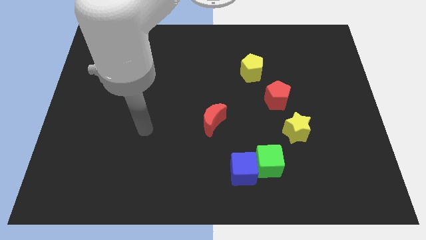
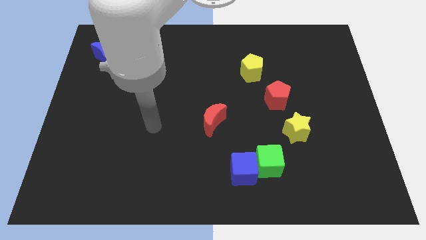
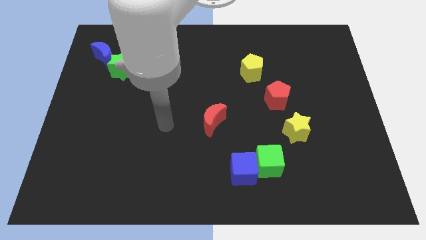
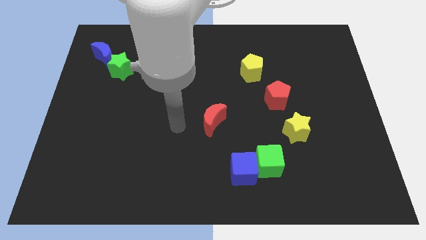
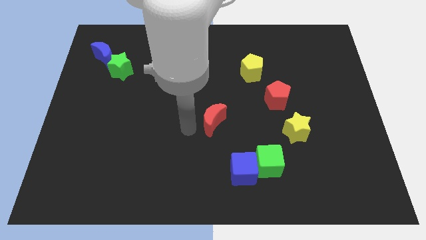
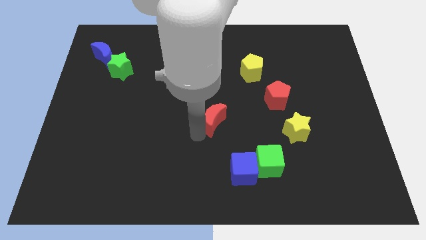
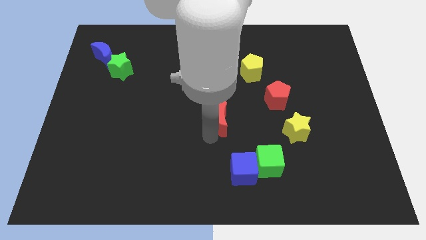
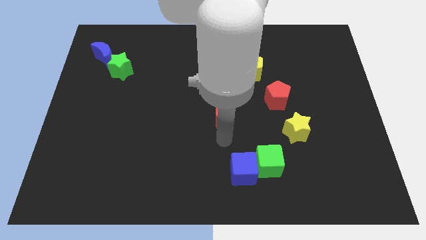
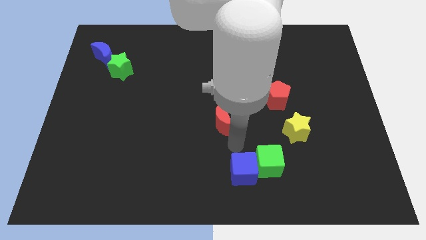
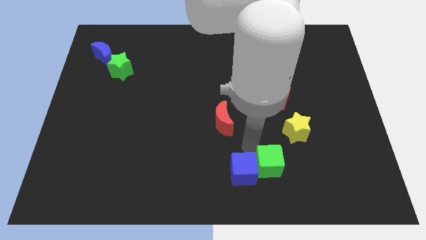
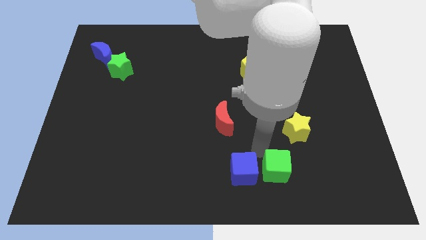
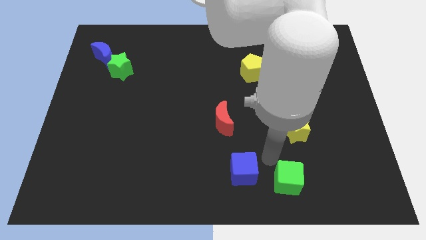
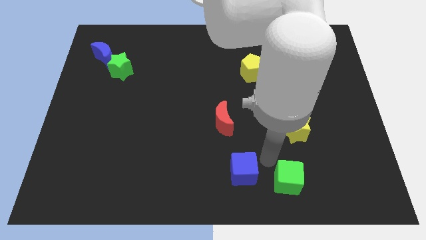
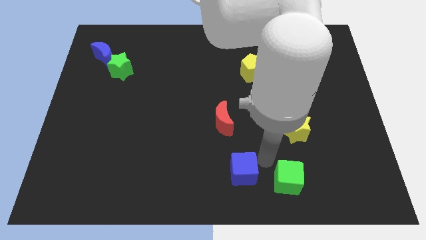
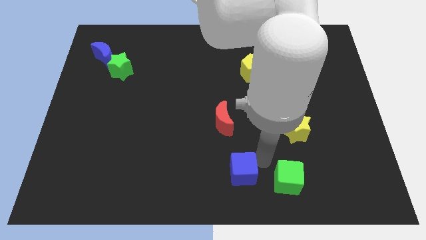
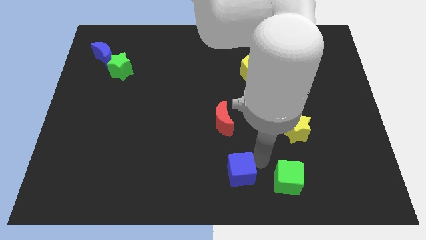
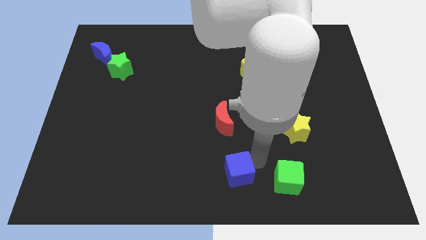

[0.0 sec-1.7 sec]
pull the blue cube apart from the green cube

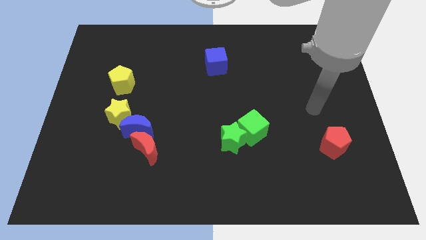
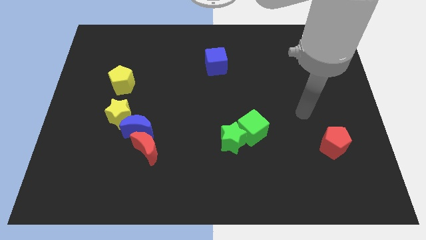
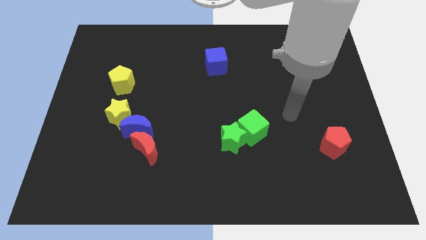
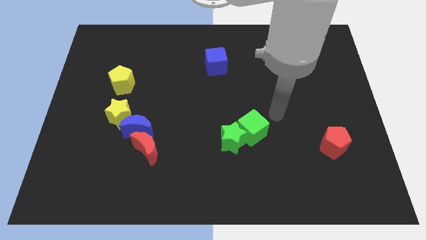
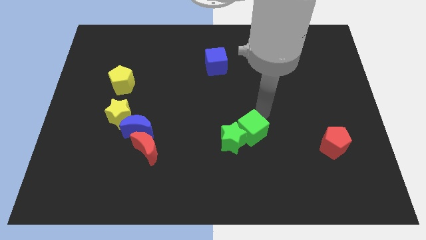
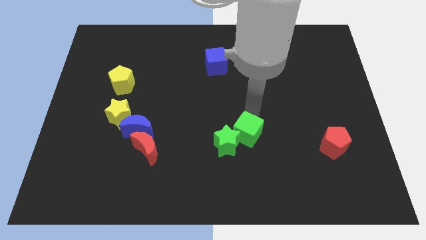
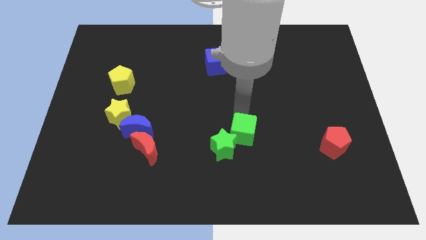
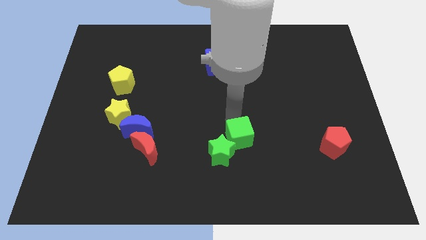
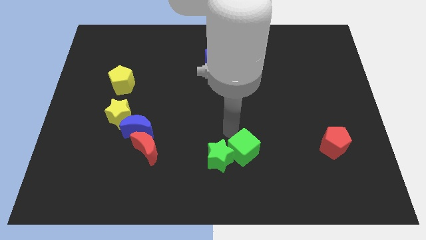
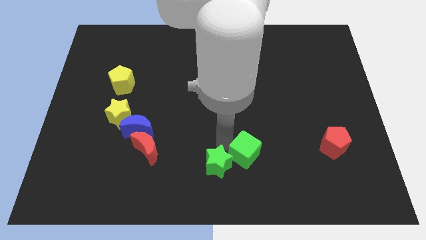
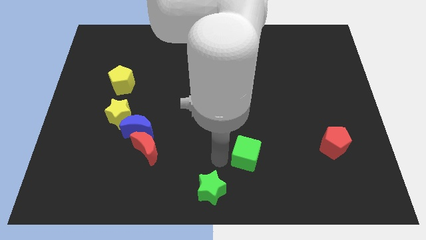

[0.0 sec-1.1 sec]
pull the green cube apart from the green star

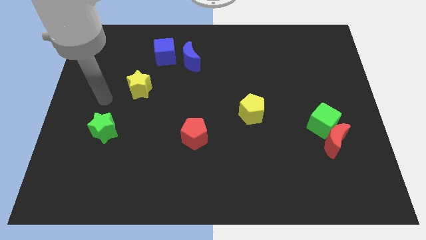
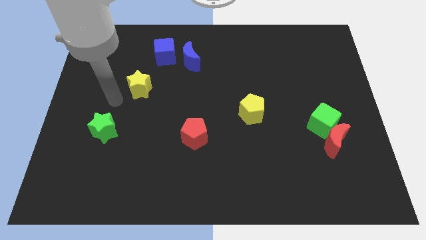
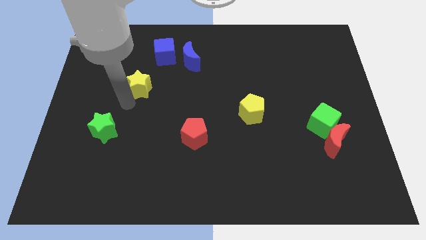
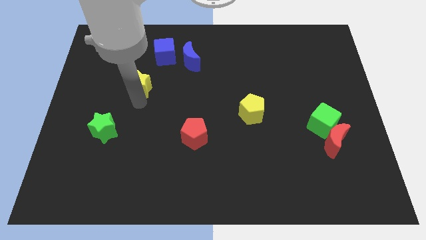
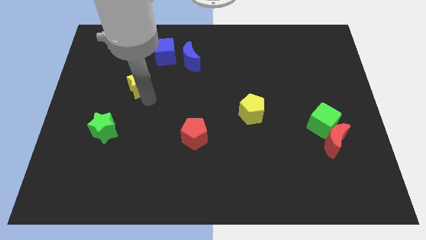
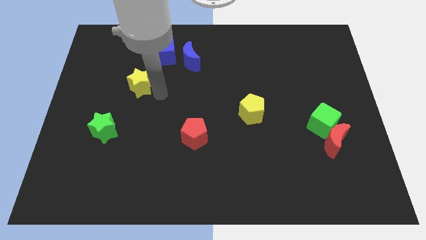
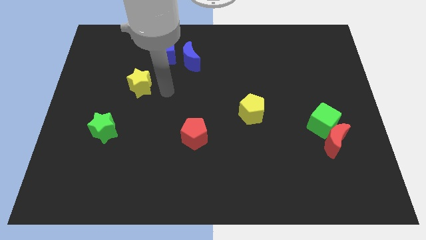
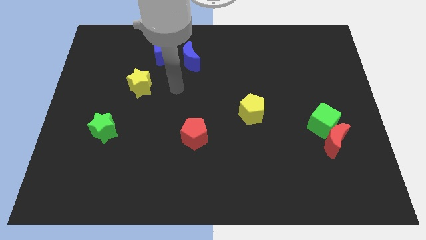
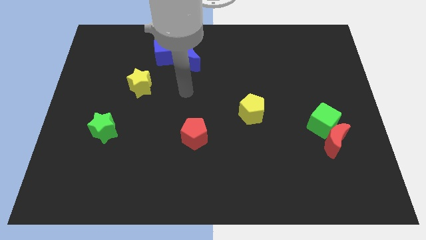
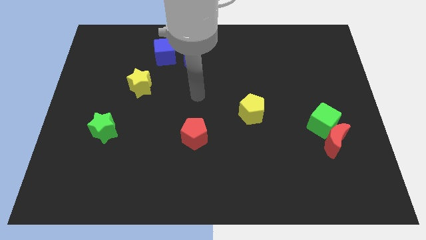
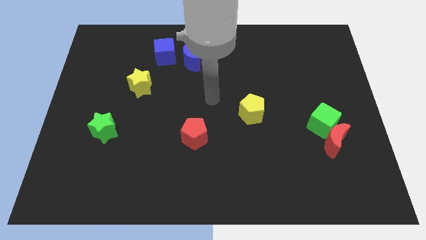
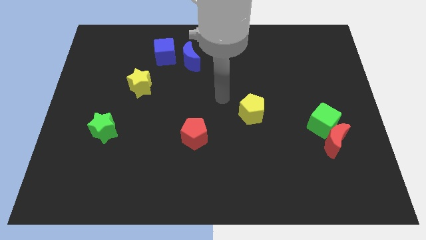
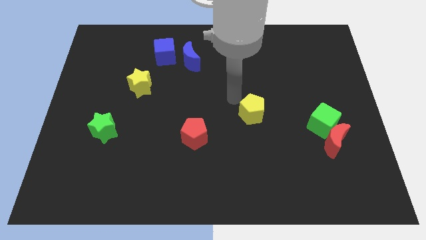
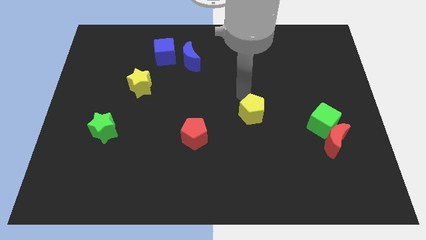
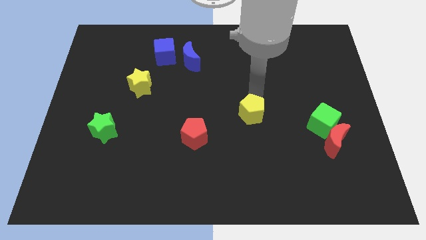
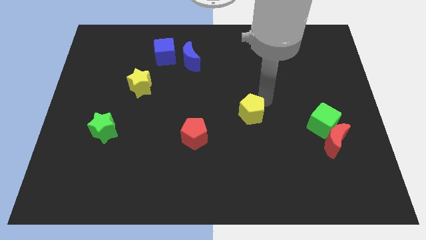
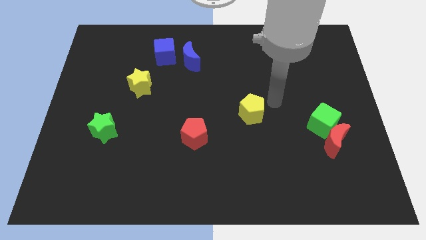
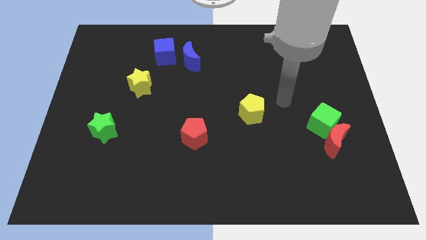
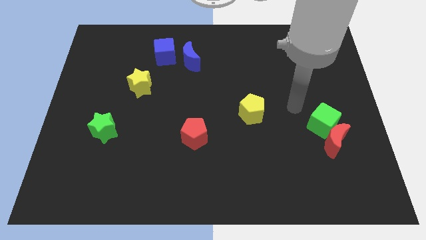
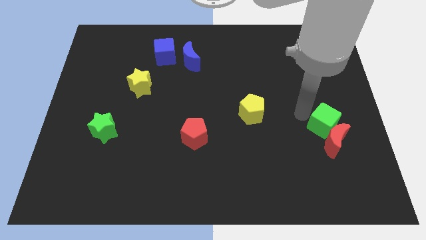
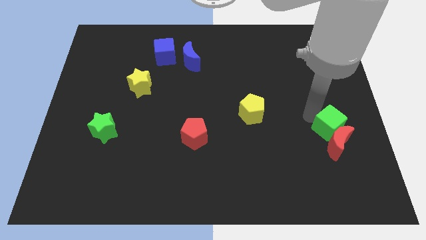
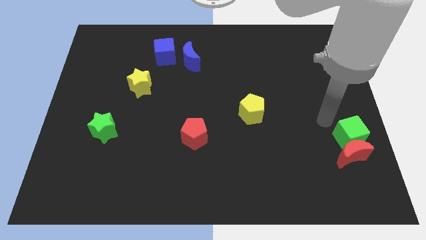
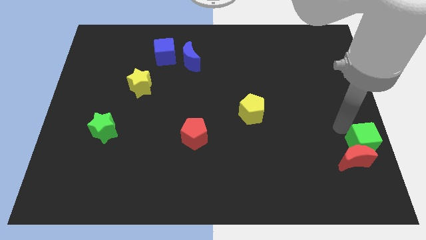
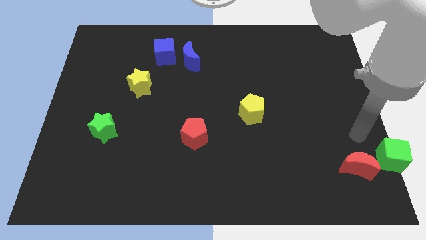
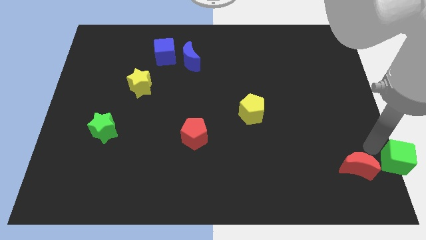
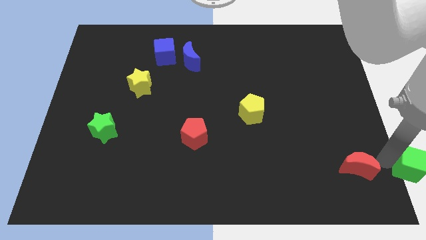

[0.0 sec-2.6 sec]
move the red moon away from the green cube

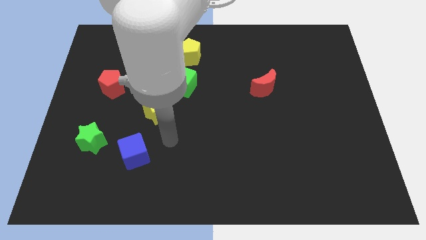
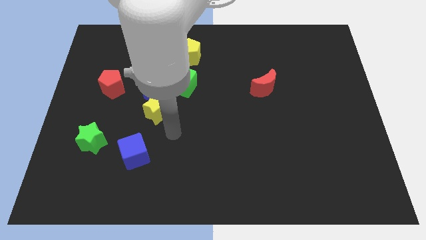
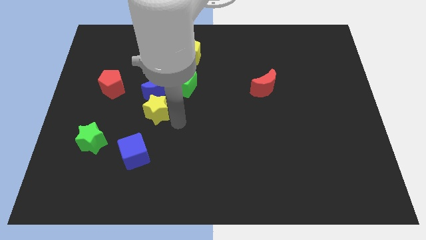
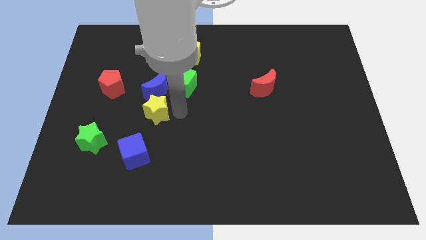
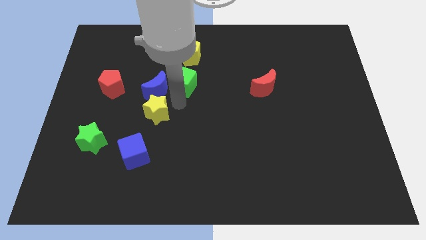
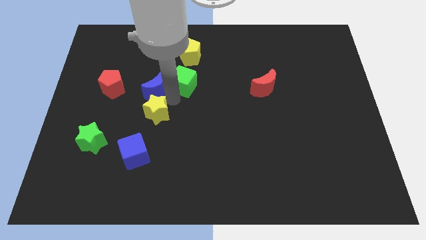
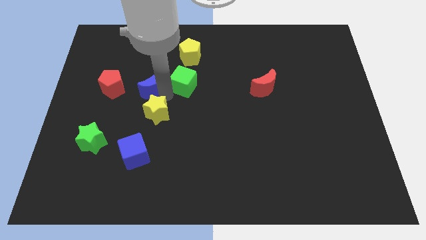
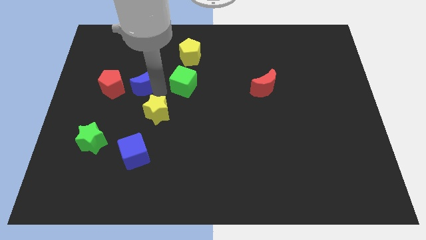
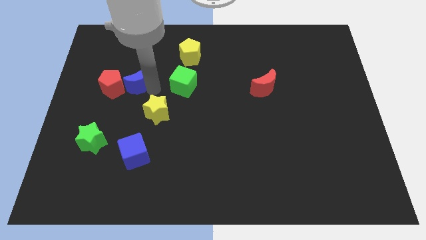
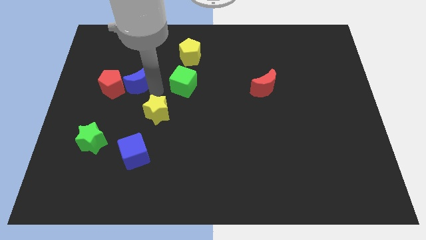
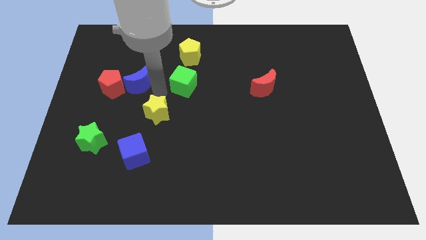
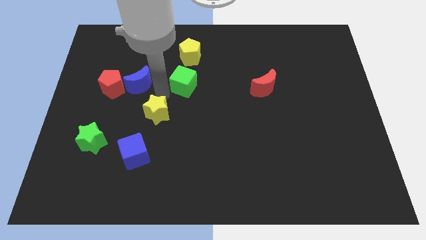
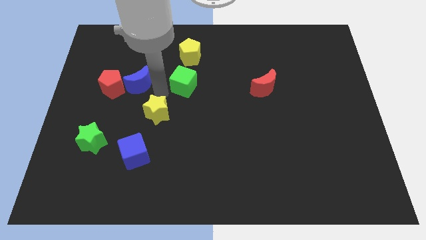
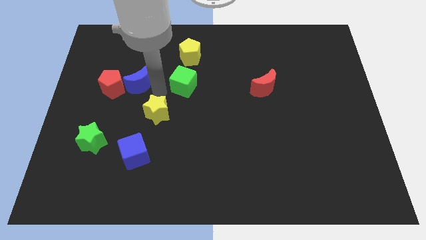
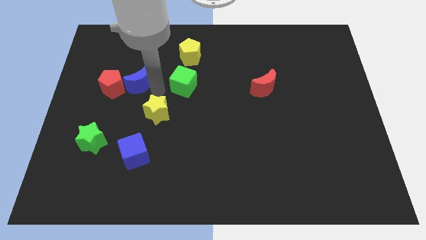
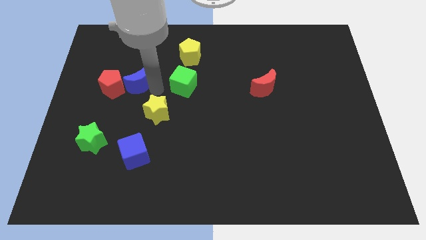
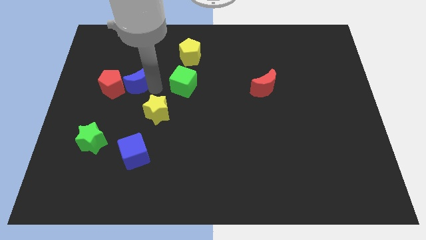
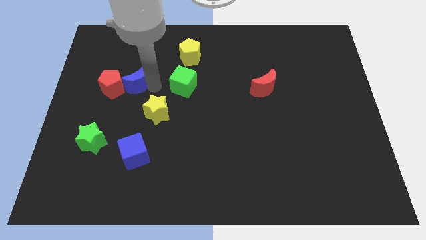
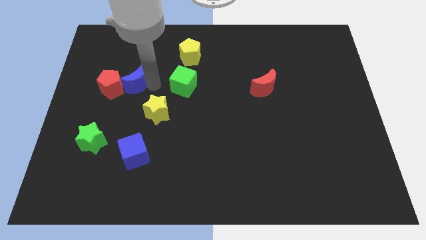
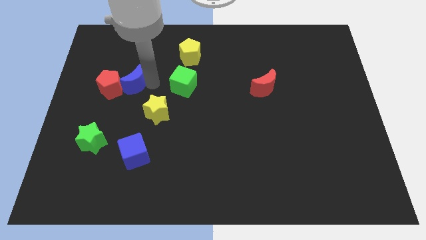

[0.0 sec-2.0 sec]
separate the blue moon from the green cube and yellow star

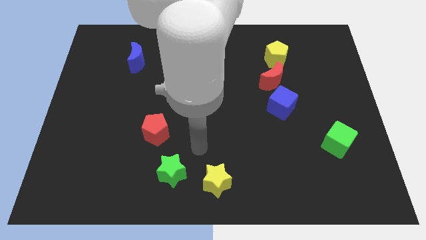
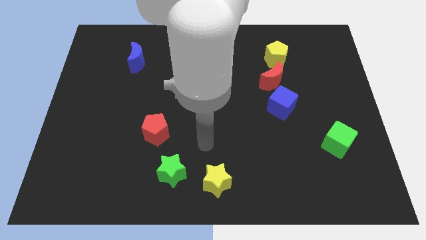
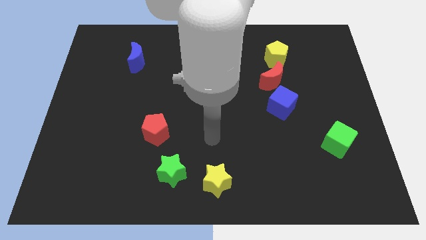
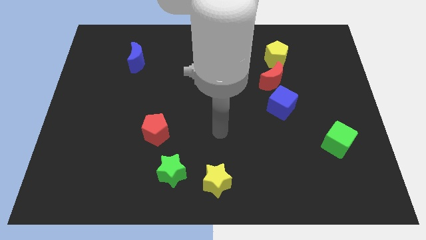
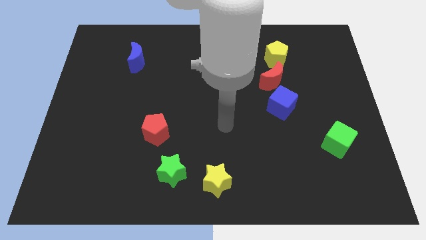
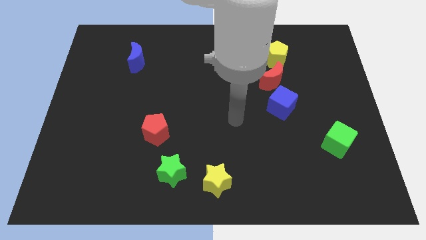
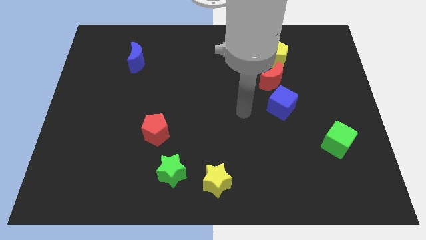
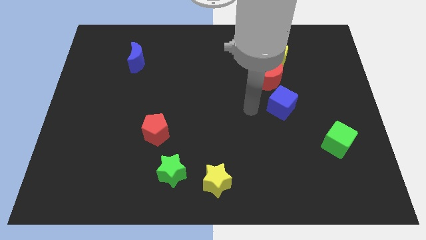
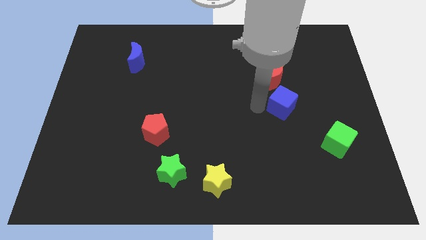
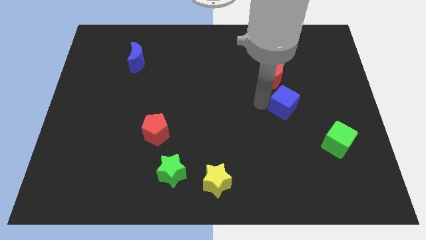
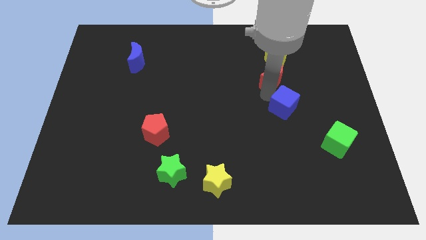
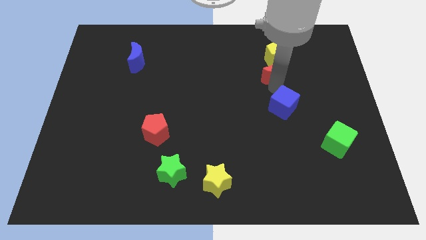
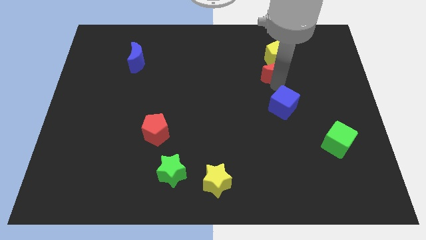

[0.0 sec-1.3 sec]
move the blue cube away from the red moon

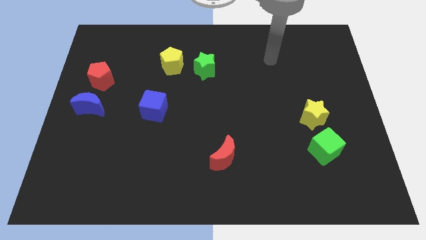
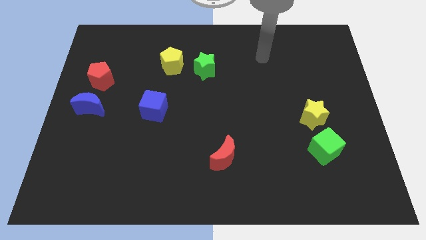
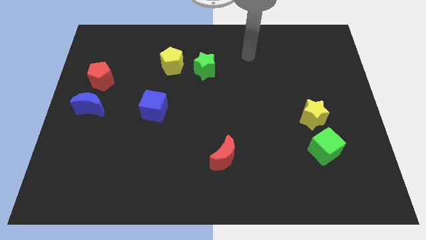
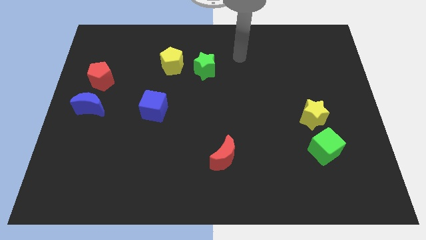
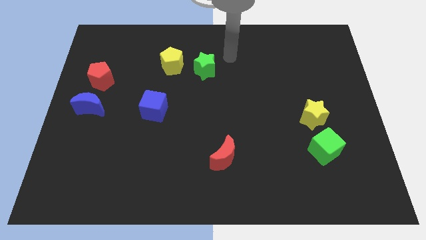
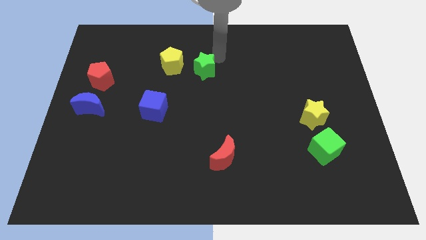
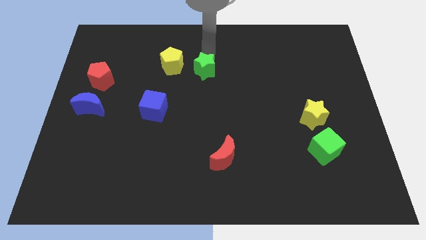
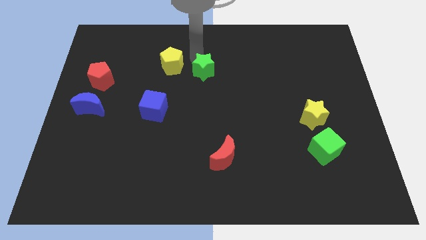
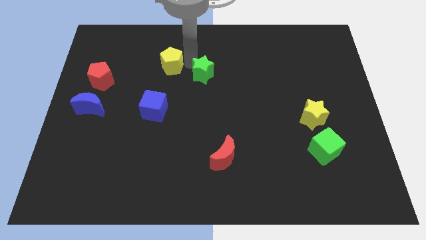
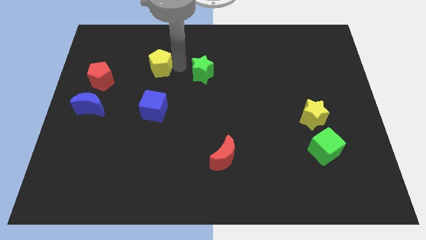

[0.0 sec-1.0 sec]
move the green star away from the yellow pentagon
